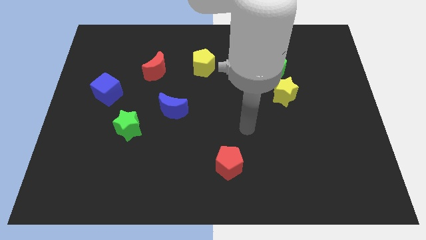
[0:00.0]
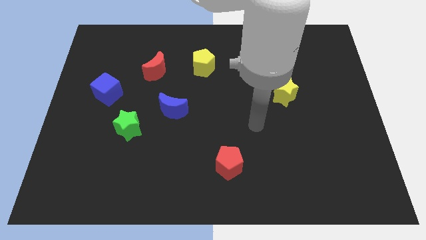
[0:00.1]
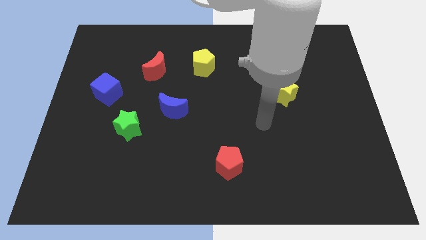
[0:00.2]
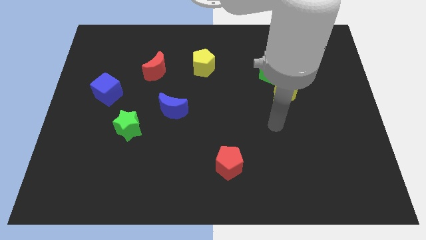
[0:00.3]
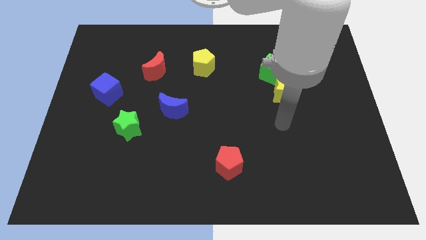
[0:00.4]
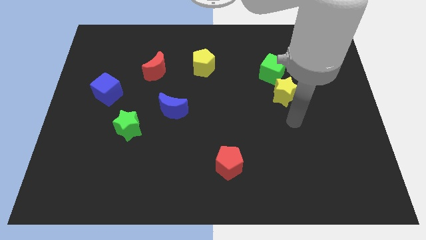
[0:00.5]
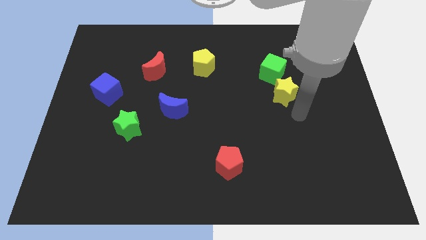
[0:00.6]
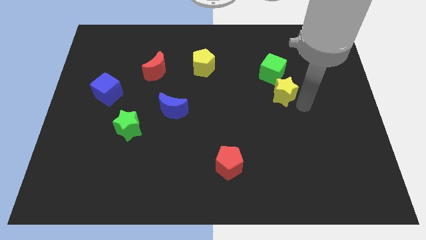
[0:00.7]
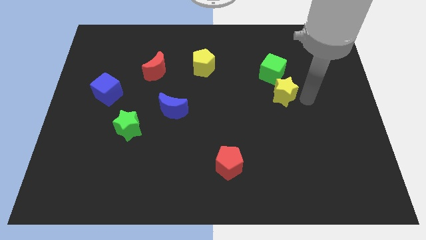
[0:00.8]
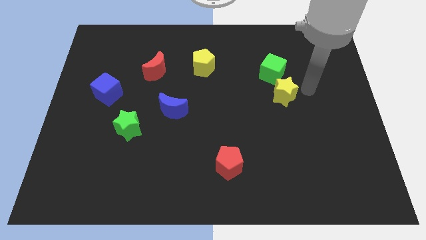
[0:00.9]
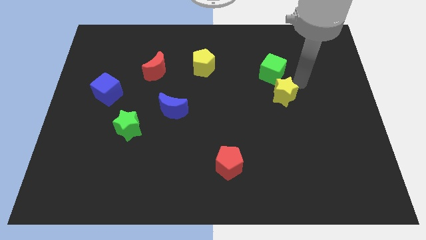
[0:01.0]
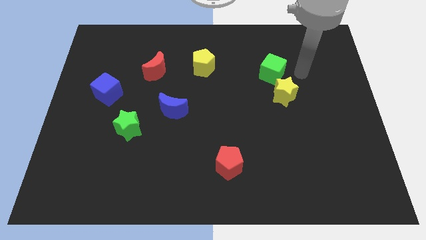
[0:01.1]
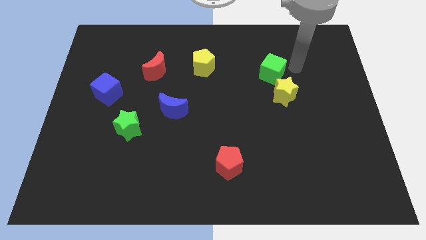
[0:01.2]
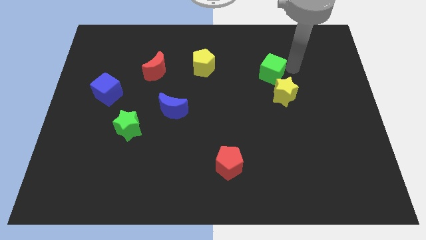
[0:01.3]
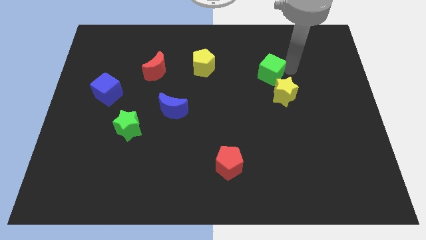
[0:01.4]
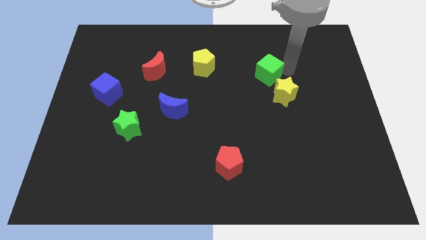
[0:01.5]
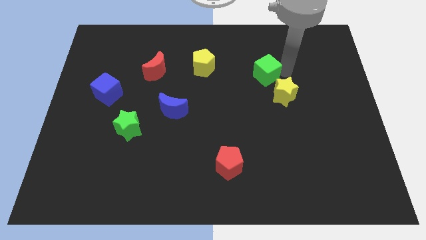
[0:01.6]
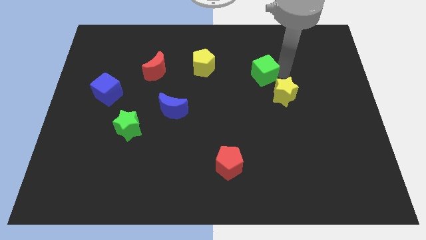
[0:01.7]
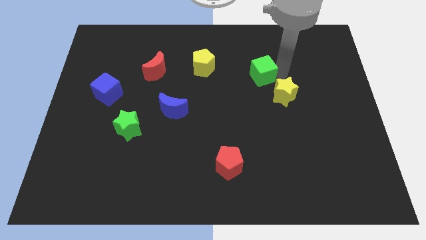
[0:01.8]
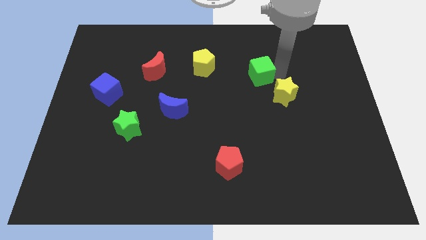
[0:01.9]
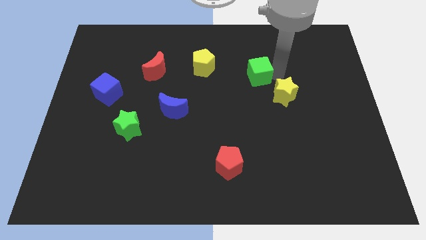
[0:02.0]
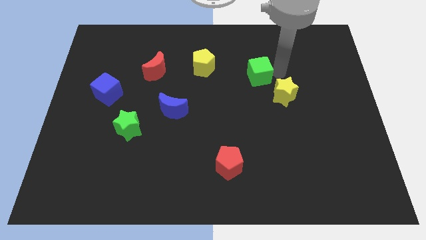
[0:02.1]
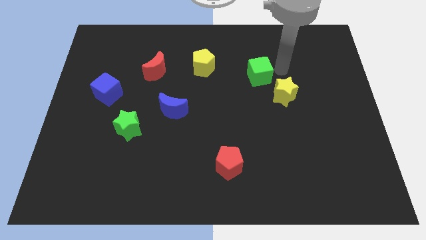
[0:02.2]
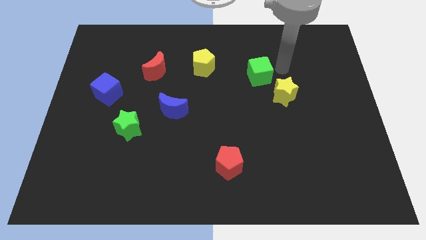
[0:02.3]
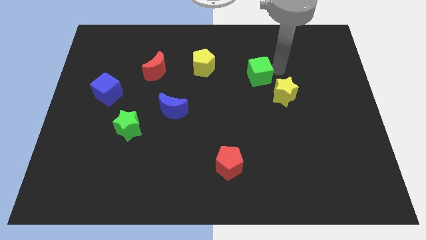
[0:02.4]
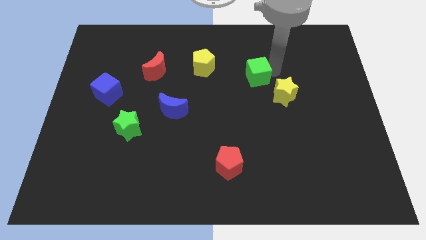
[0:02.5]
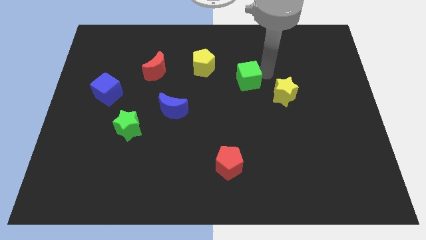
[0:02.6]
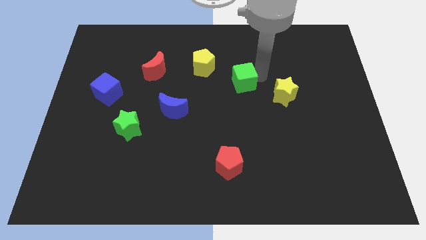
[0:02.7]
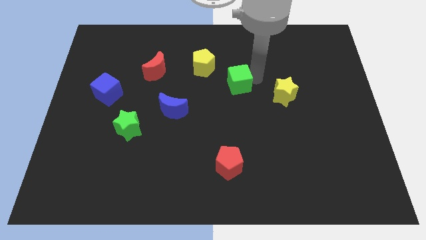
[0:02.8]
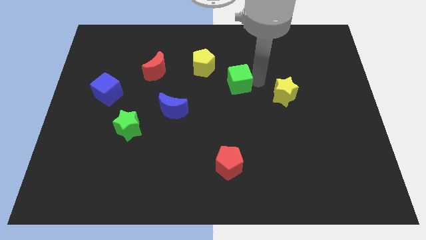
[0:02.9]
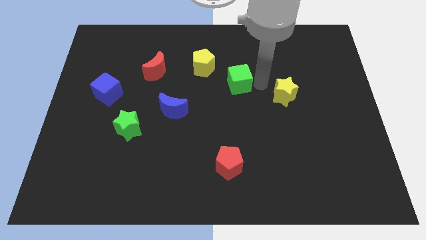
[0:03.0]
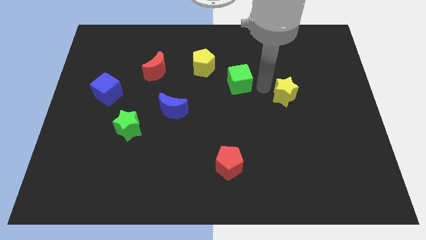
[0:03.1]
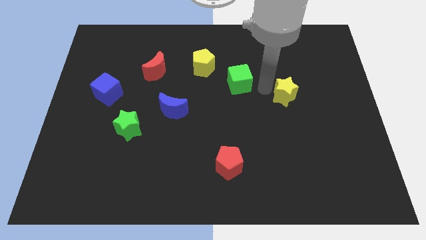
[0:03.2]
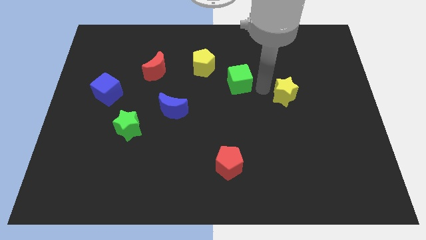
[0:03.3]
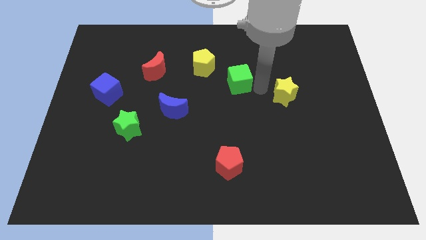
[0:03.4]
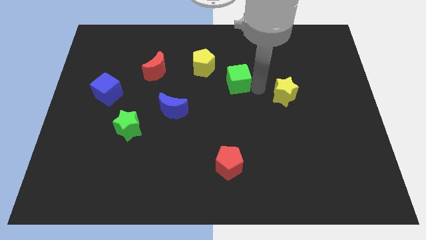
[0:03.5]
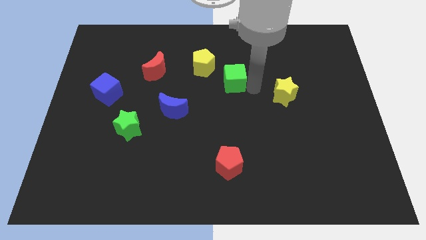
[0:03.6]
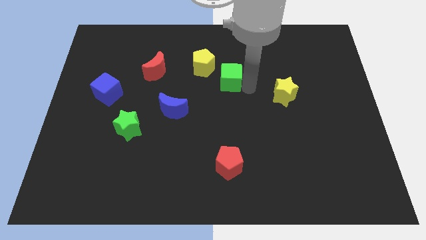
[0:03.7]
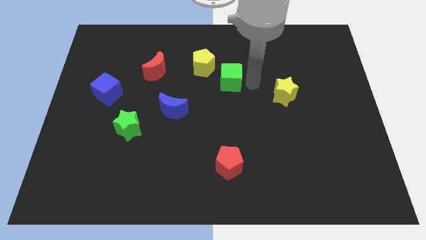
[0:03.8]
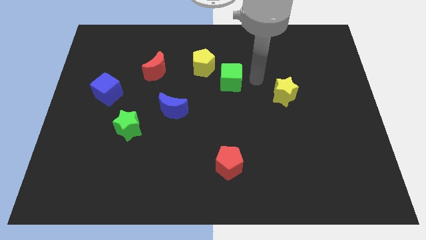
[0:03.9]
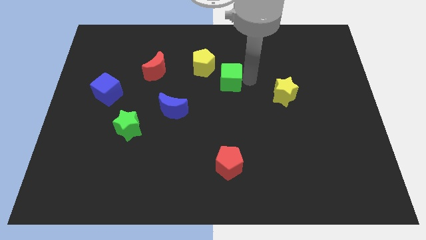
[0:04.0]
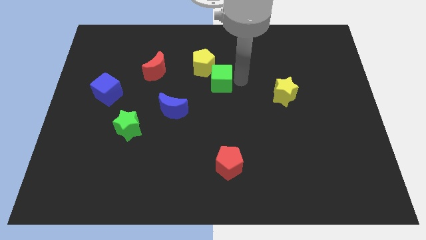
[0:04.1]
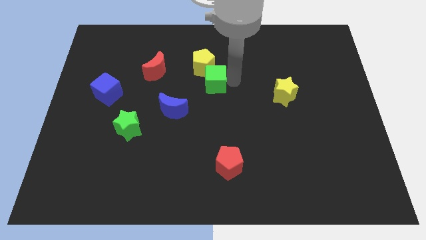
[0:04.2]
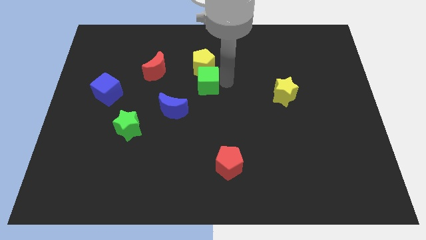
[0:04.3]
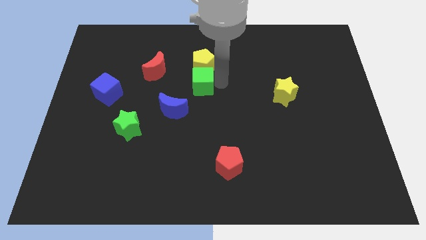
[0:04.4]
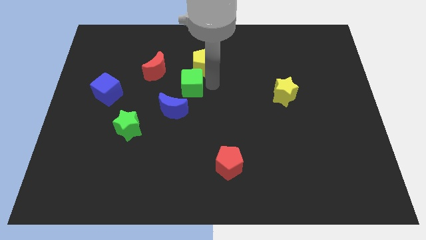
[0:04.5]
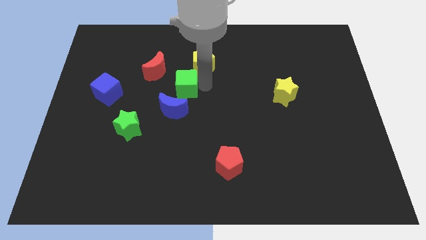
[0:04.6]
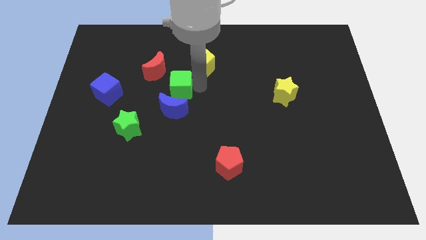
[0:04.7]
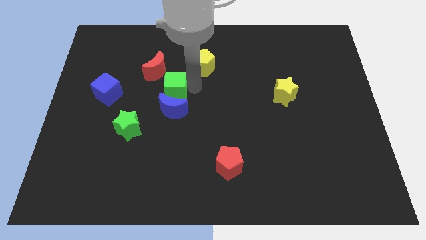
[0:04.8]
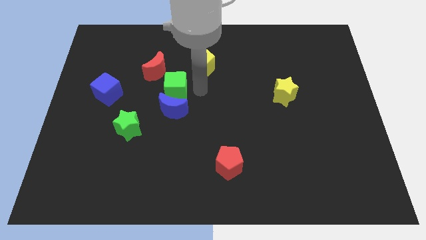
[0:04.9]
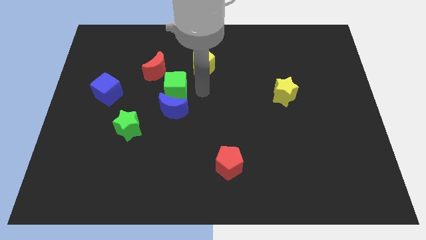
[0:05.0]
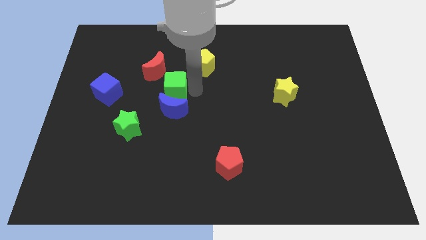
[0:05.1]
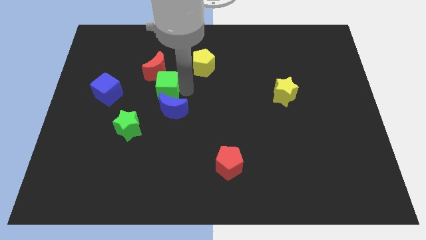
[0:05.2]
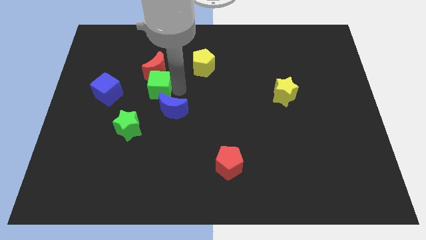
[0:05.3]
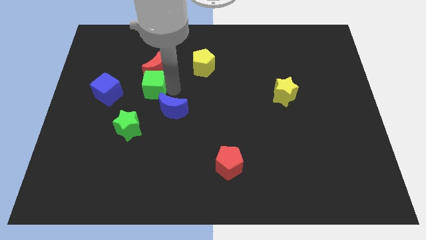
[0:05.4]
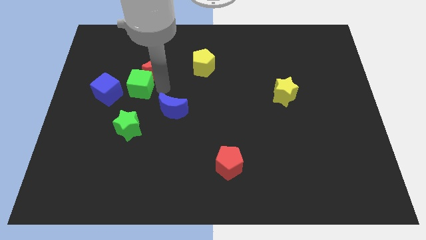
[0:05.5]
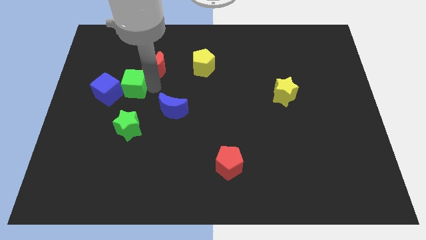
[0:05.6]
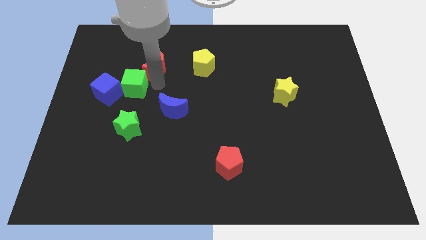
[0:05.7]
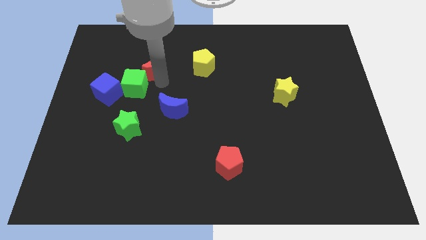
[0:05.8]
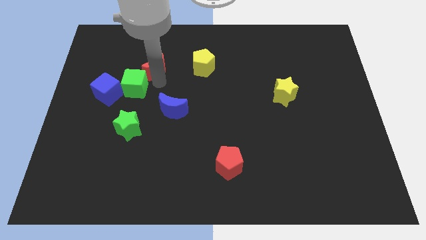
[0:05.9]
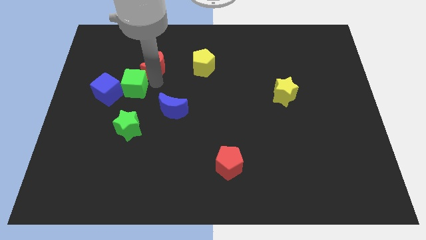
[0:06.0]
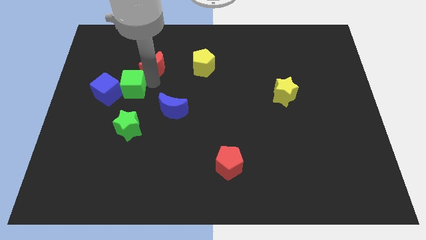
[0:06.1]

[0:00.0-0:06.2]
slide the green cube to the blue cube
